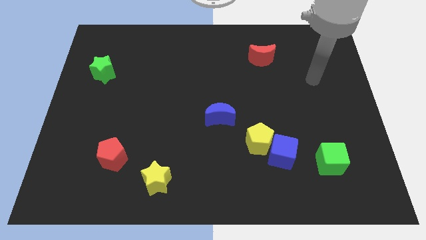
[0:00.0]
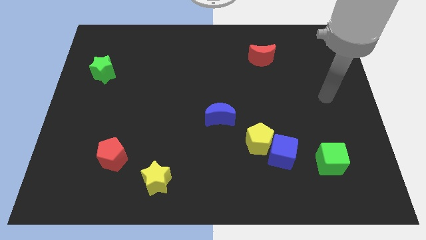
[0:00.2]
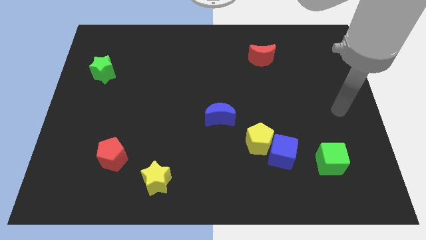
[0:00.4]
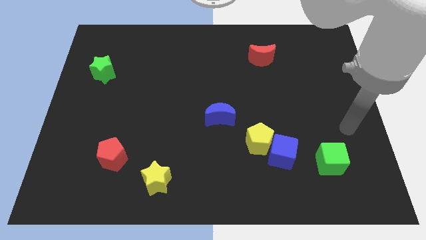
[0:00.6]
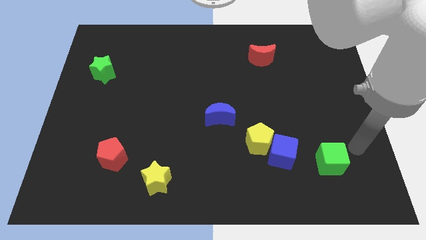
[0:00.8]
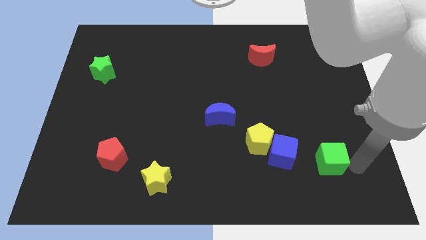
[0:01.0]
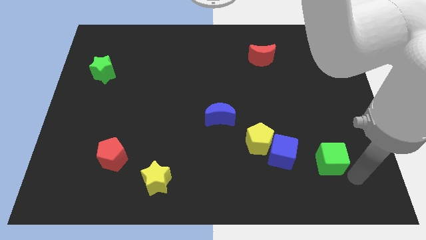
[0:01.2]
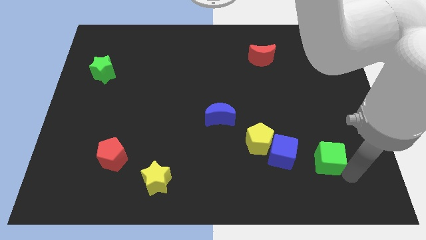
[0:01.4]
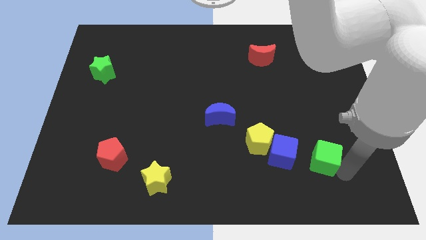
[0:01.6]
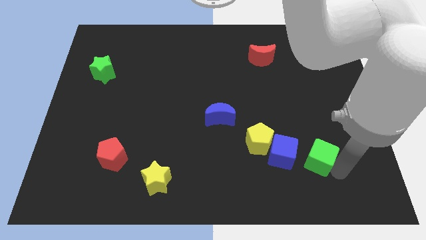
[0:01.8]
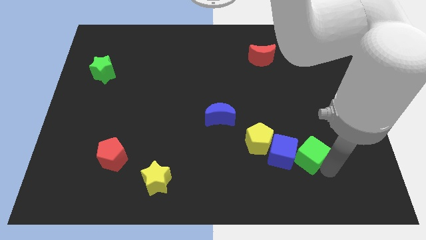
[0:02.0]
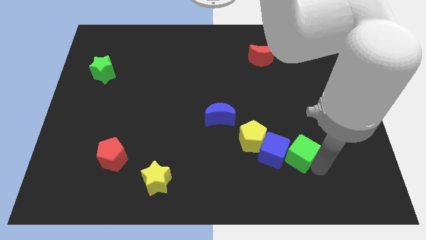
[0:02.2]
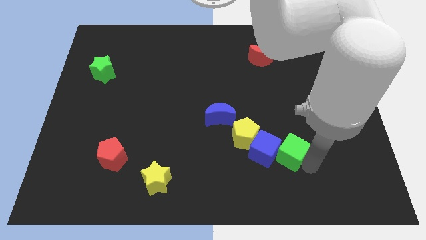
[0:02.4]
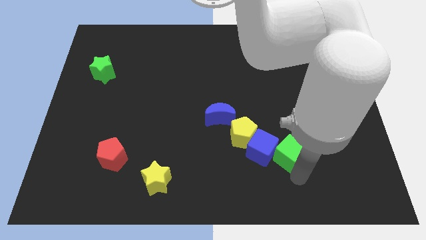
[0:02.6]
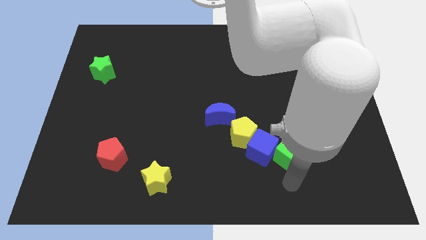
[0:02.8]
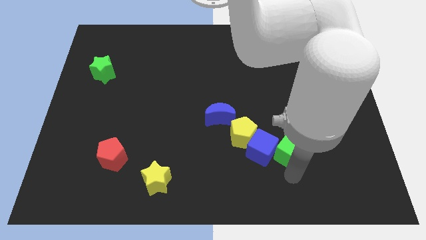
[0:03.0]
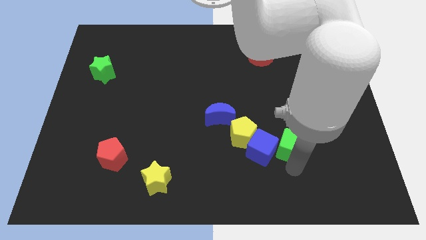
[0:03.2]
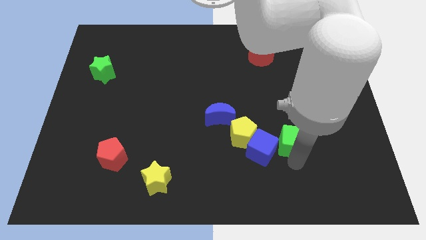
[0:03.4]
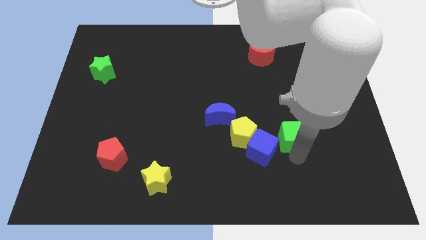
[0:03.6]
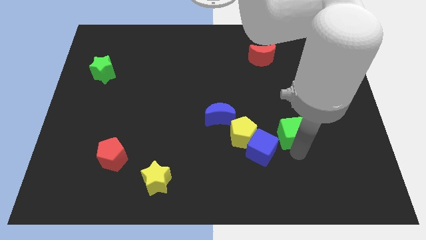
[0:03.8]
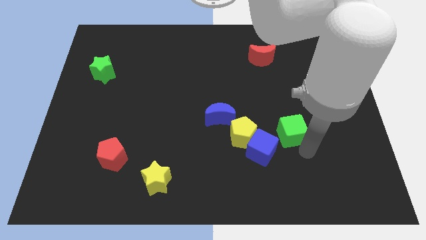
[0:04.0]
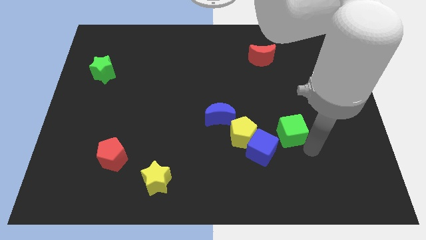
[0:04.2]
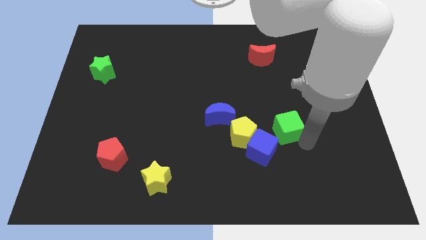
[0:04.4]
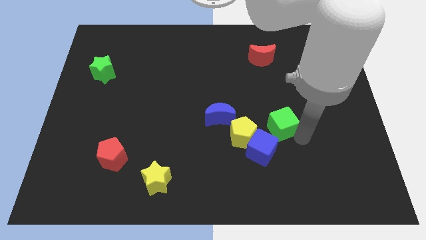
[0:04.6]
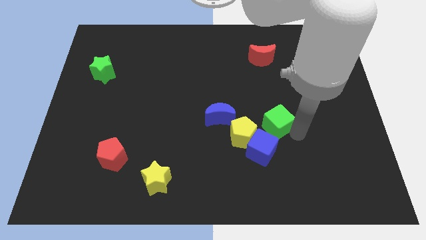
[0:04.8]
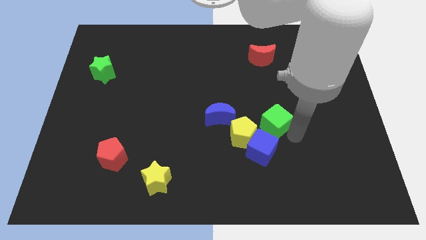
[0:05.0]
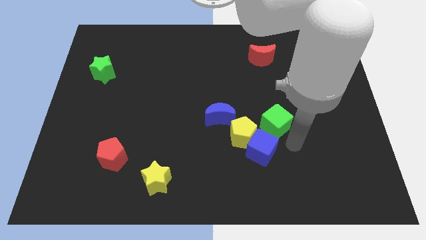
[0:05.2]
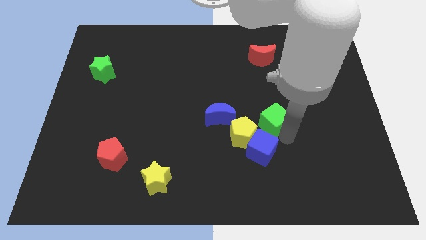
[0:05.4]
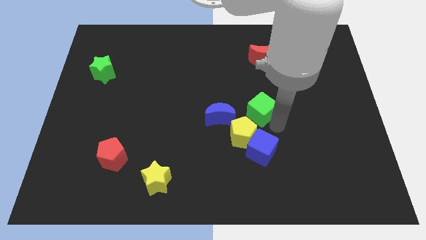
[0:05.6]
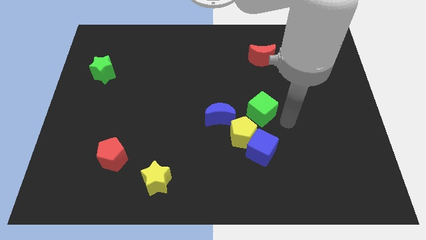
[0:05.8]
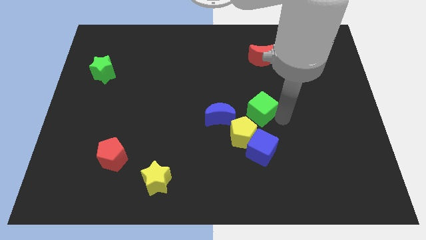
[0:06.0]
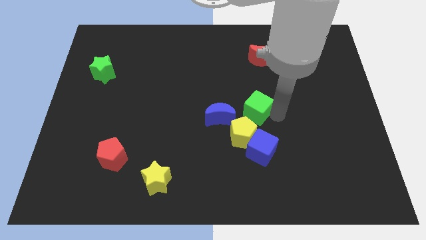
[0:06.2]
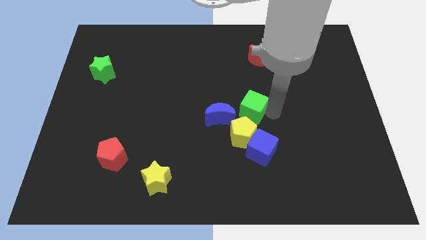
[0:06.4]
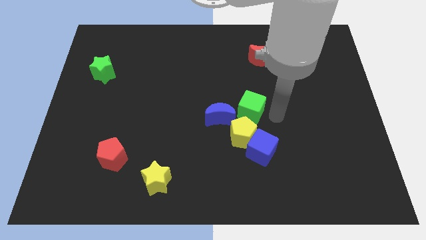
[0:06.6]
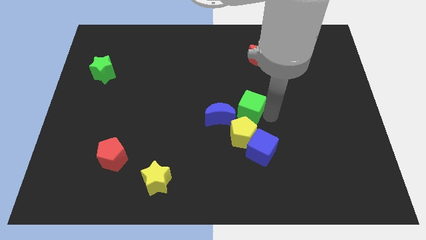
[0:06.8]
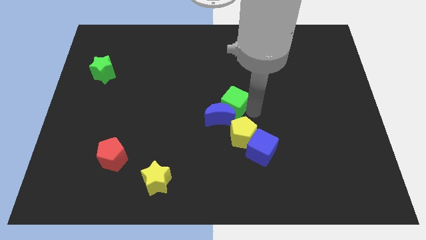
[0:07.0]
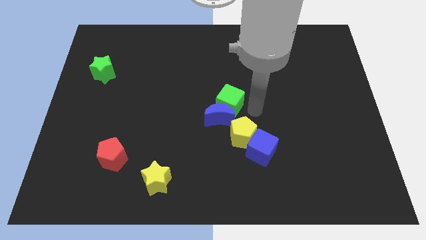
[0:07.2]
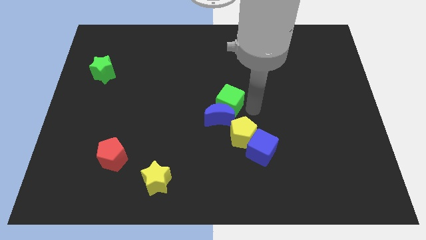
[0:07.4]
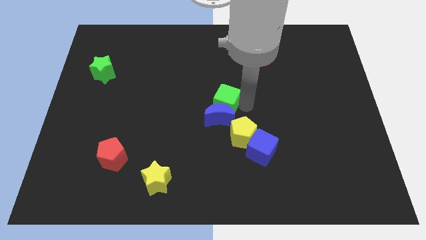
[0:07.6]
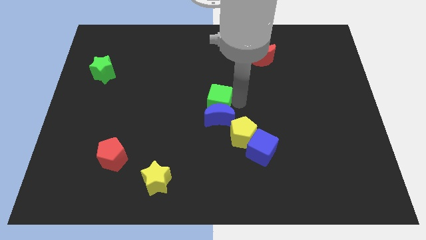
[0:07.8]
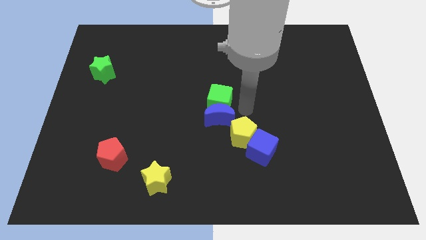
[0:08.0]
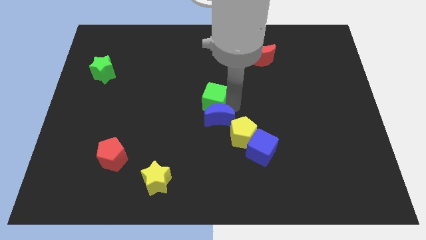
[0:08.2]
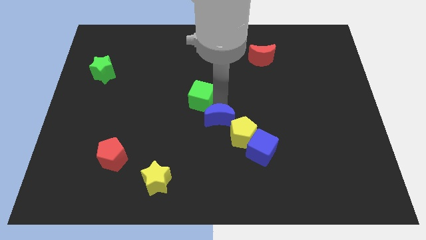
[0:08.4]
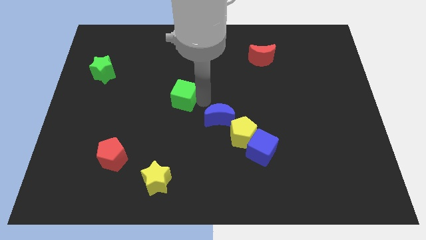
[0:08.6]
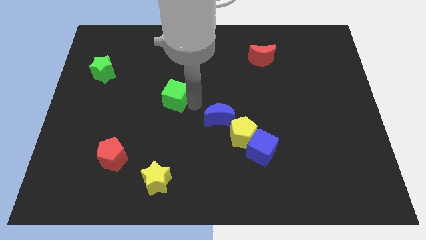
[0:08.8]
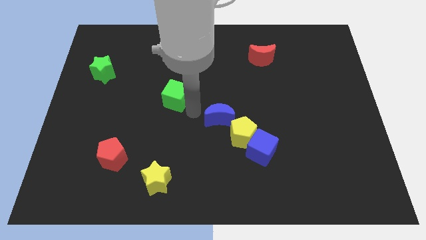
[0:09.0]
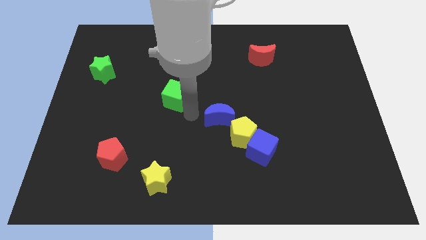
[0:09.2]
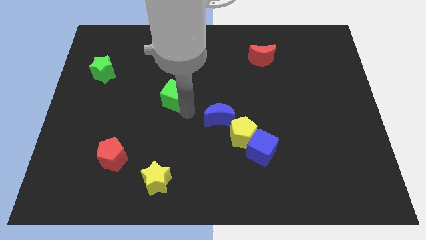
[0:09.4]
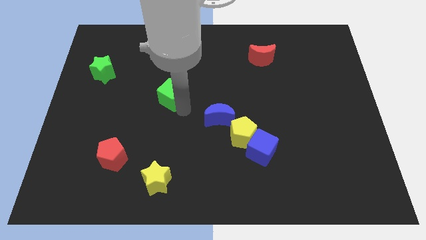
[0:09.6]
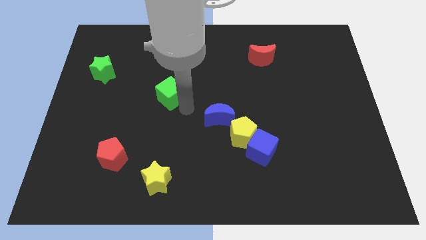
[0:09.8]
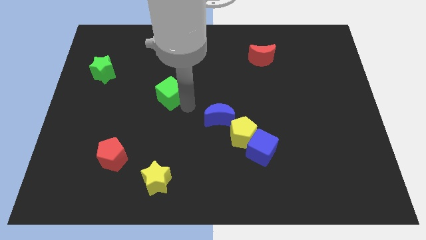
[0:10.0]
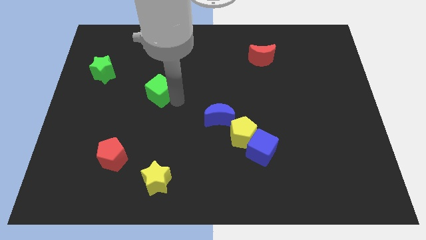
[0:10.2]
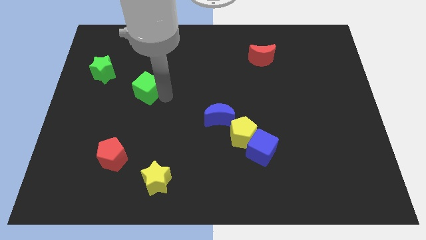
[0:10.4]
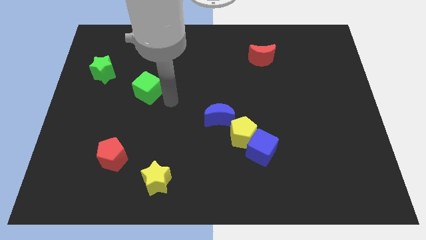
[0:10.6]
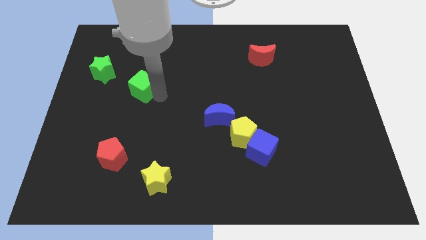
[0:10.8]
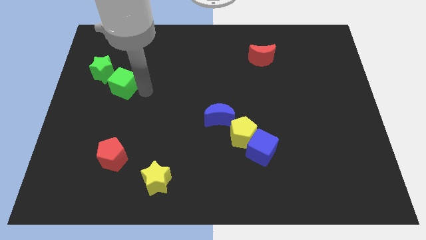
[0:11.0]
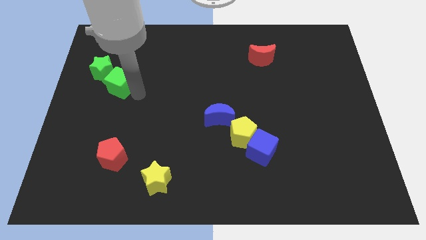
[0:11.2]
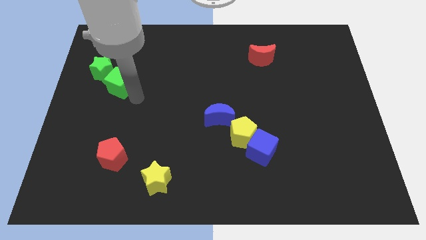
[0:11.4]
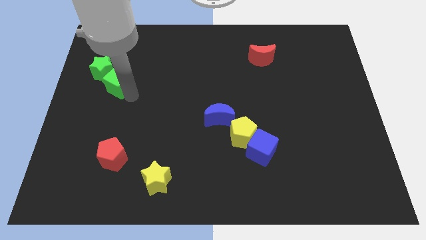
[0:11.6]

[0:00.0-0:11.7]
push the green cube to the green star

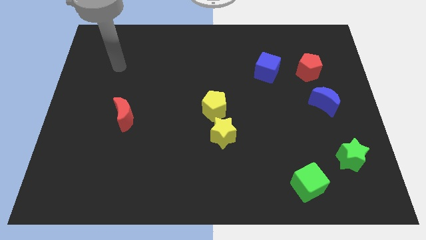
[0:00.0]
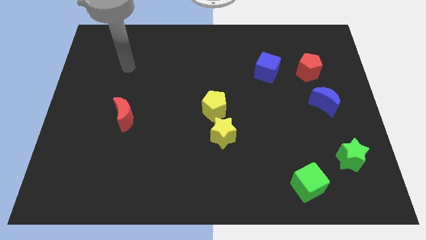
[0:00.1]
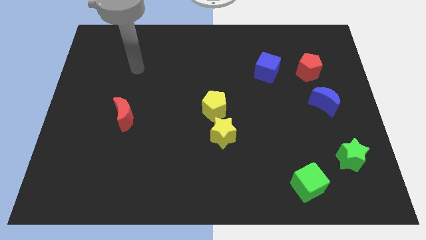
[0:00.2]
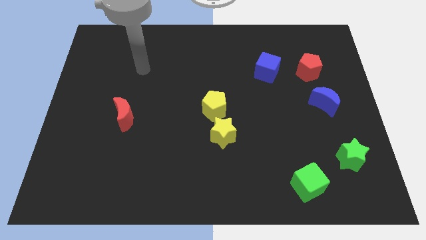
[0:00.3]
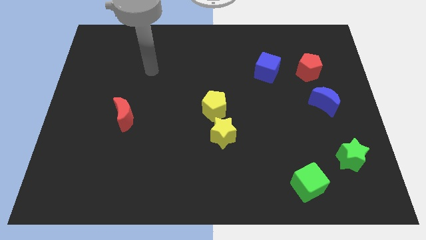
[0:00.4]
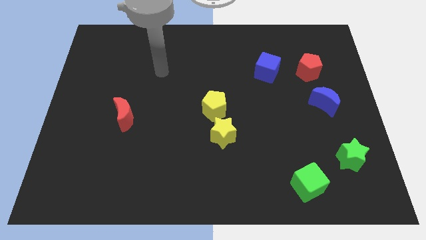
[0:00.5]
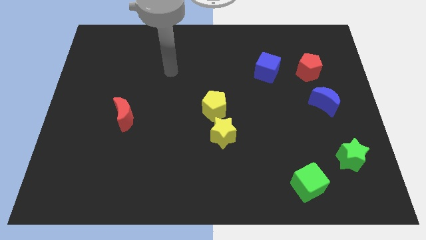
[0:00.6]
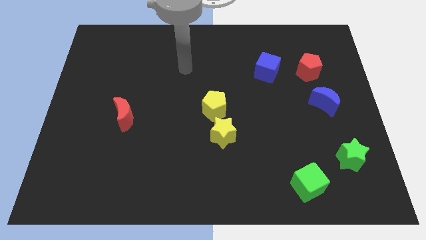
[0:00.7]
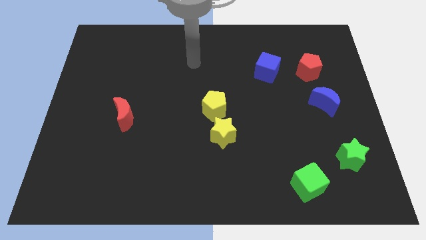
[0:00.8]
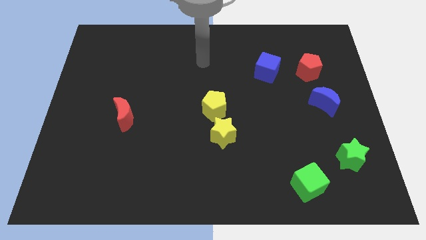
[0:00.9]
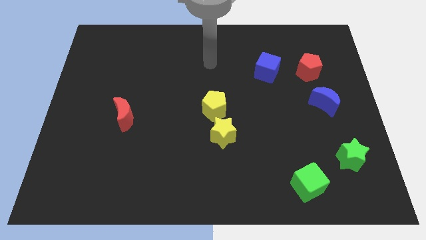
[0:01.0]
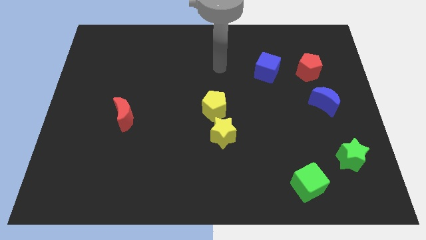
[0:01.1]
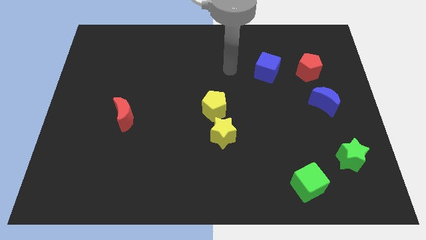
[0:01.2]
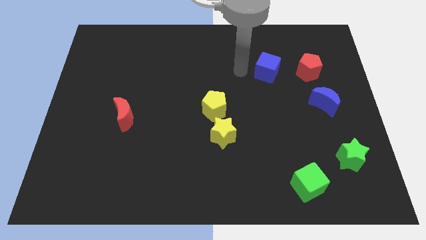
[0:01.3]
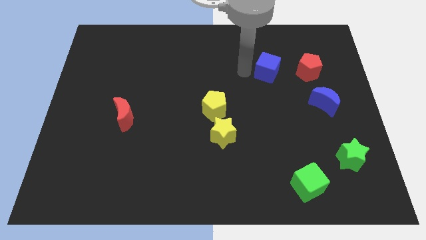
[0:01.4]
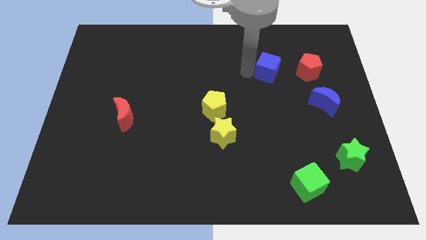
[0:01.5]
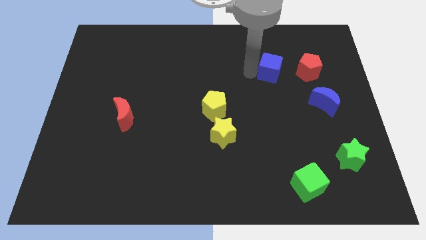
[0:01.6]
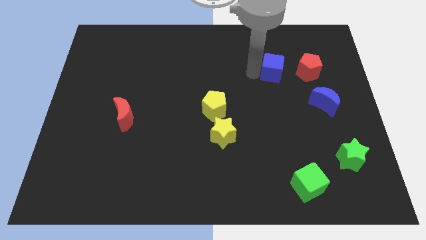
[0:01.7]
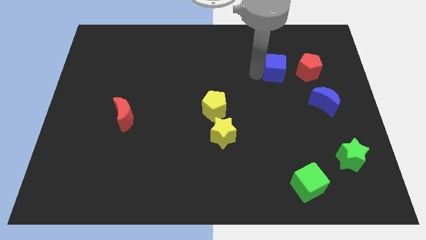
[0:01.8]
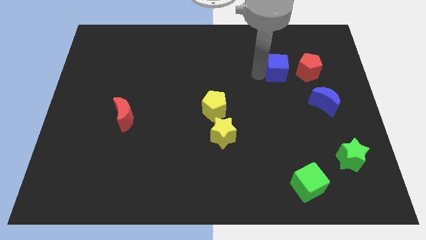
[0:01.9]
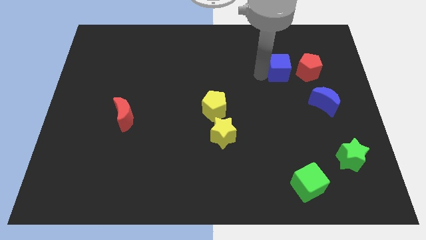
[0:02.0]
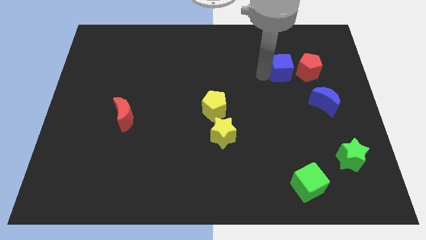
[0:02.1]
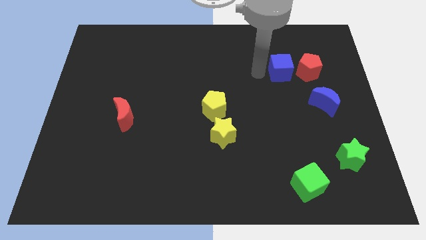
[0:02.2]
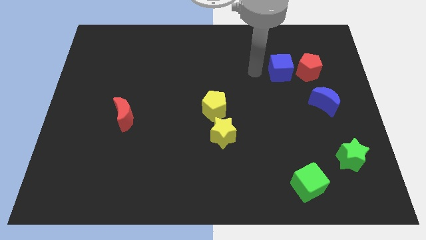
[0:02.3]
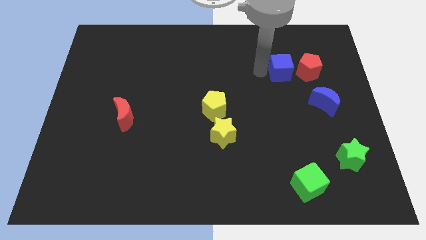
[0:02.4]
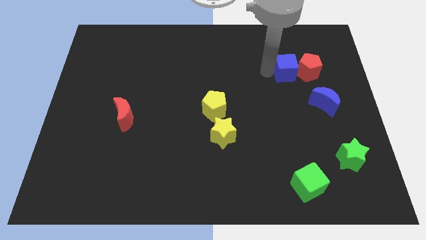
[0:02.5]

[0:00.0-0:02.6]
slide the blue cube next to the red pentagon
